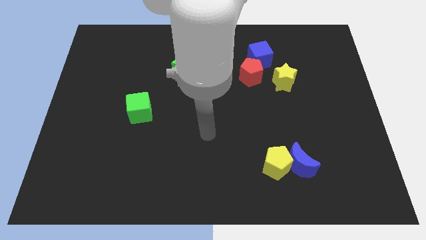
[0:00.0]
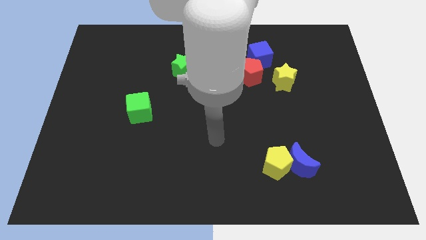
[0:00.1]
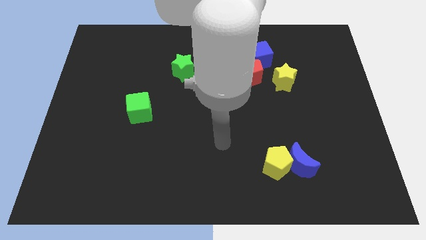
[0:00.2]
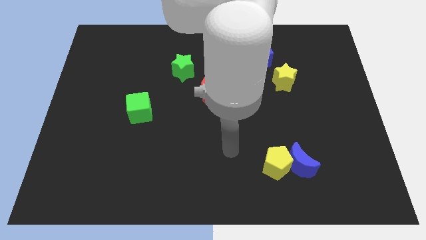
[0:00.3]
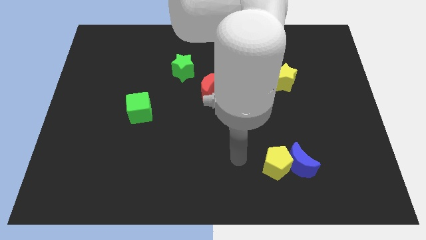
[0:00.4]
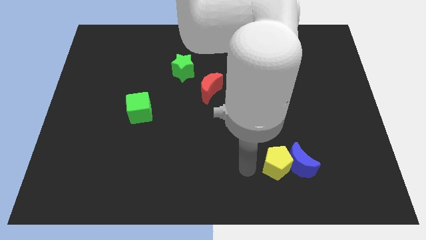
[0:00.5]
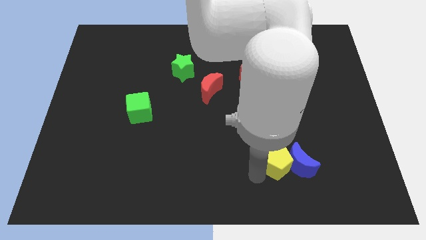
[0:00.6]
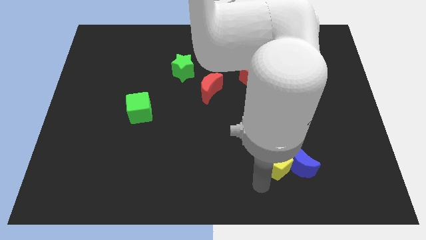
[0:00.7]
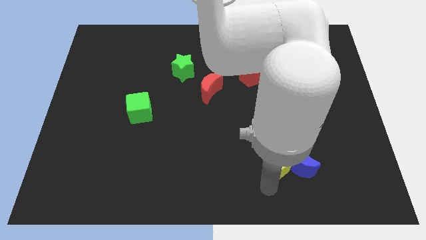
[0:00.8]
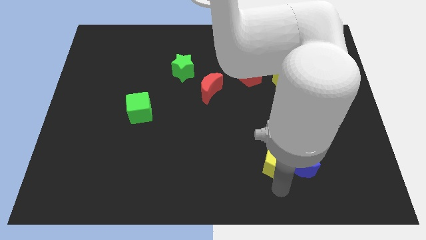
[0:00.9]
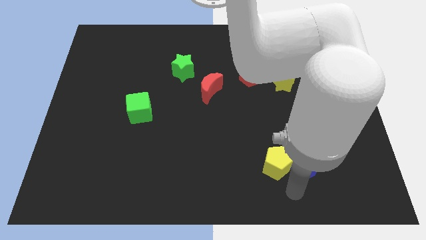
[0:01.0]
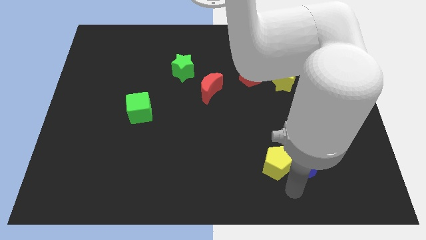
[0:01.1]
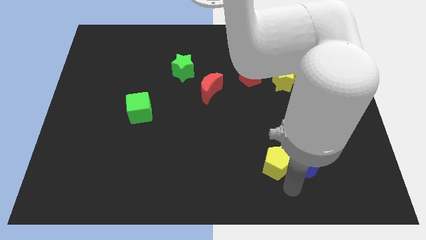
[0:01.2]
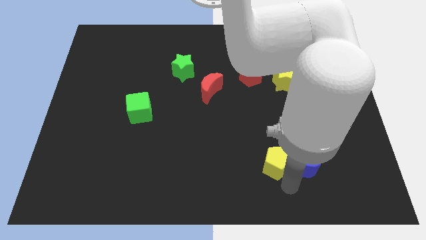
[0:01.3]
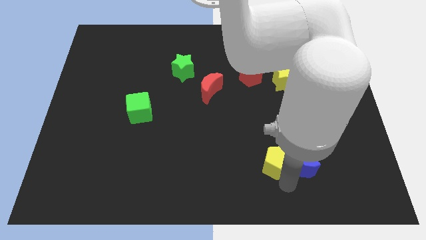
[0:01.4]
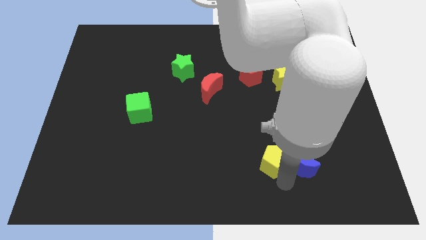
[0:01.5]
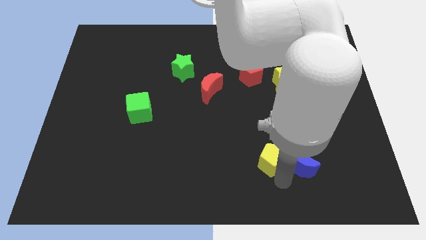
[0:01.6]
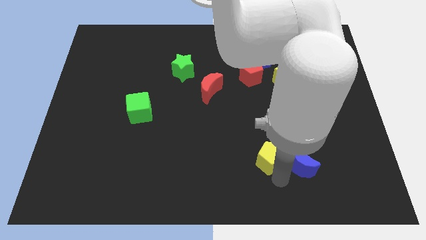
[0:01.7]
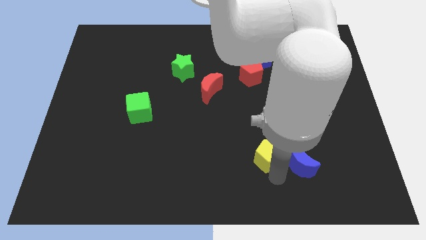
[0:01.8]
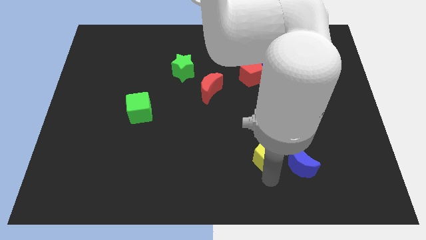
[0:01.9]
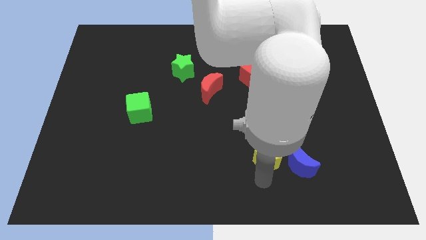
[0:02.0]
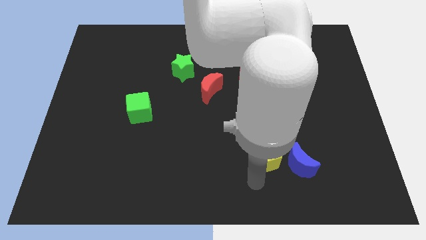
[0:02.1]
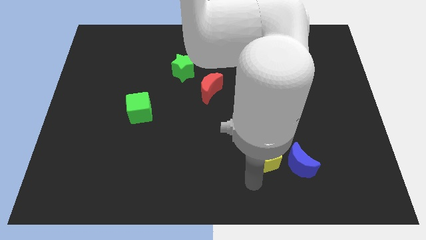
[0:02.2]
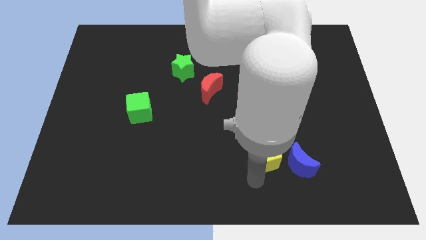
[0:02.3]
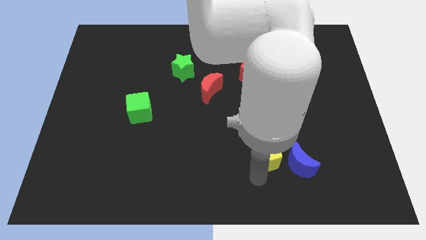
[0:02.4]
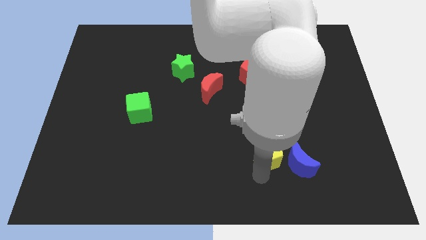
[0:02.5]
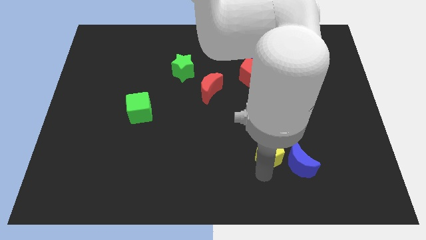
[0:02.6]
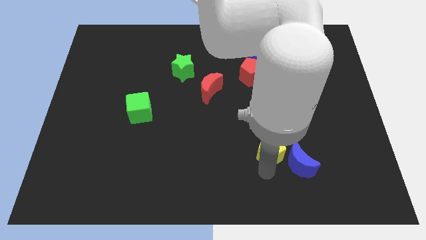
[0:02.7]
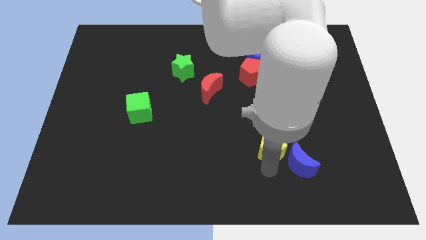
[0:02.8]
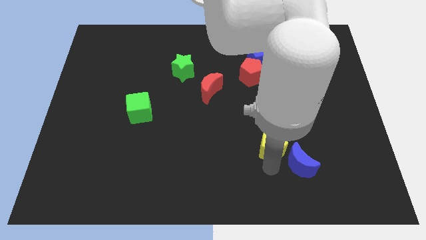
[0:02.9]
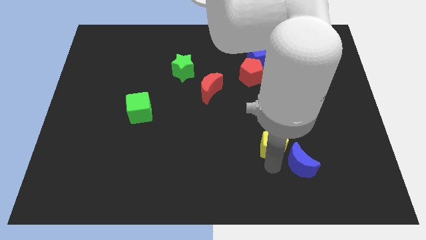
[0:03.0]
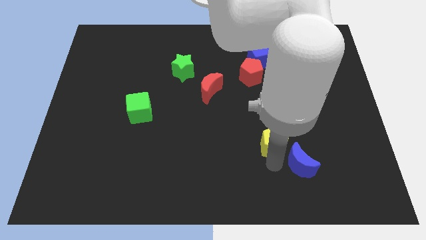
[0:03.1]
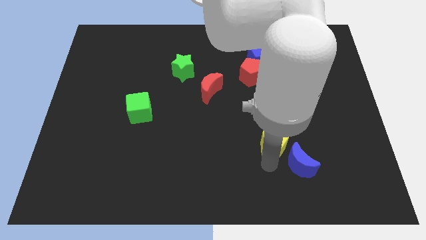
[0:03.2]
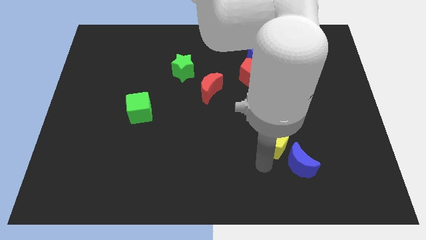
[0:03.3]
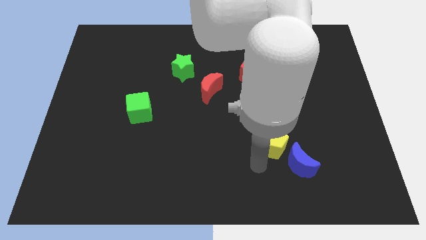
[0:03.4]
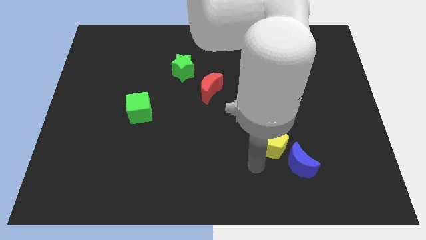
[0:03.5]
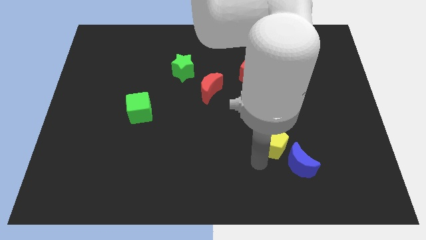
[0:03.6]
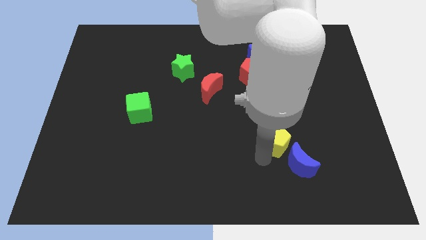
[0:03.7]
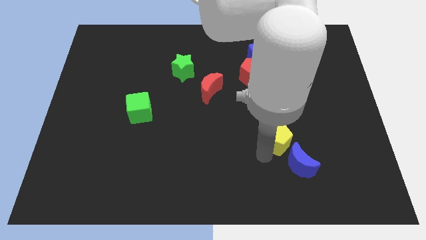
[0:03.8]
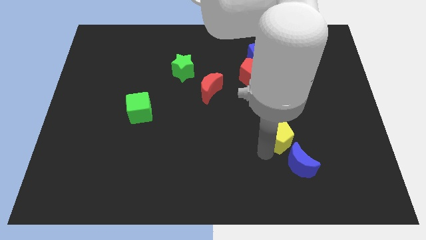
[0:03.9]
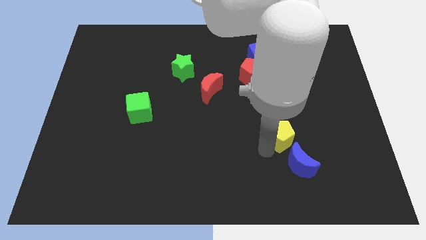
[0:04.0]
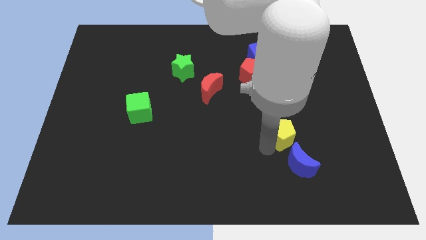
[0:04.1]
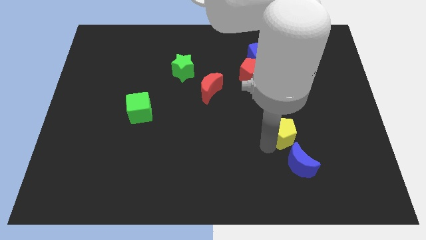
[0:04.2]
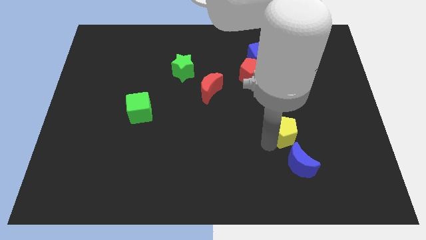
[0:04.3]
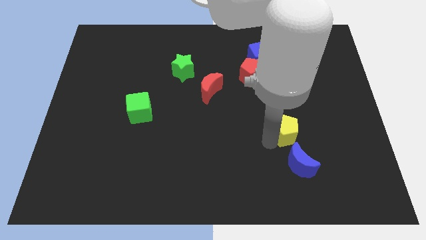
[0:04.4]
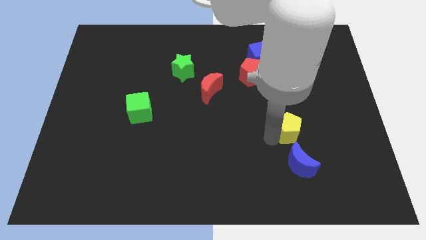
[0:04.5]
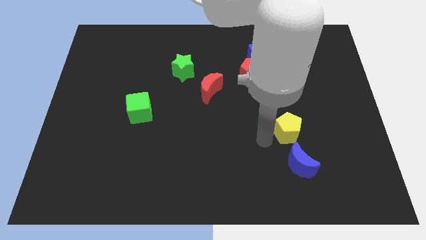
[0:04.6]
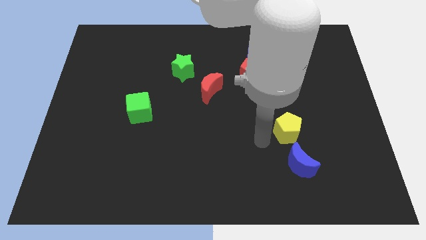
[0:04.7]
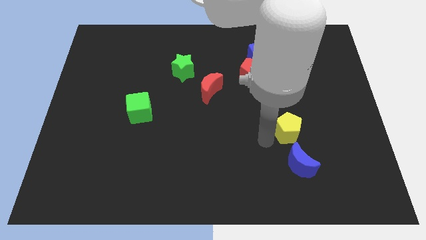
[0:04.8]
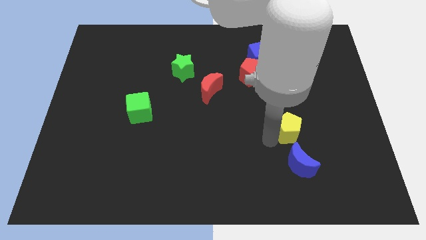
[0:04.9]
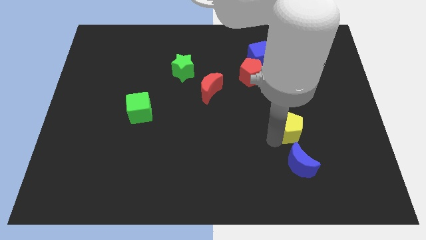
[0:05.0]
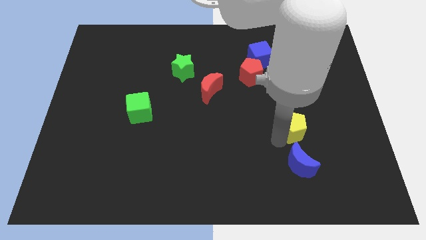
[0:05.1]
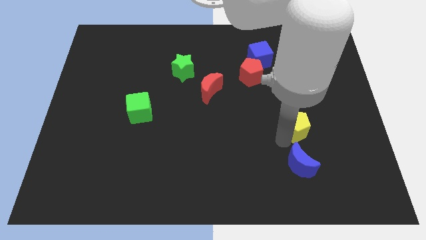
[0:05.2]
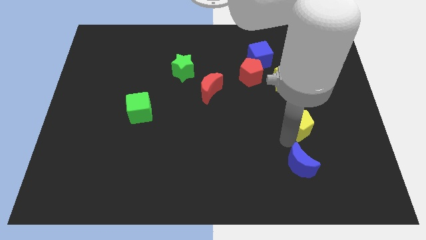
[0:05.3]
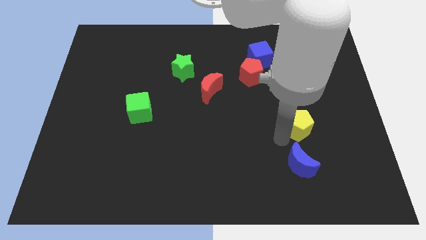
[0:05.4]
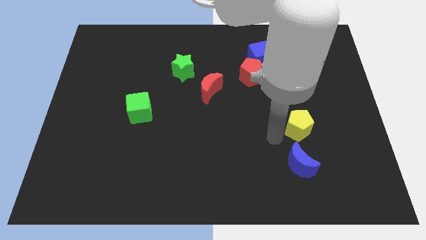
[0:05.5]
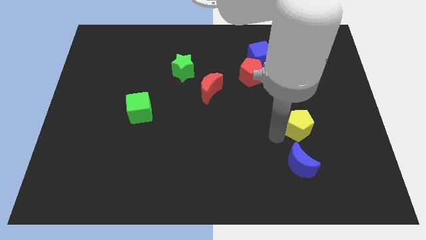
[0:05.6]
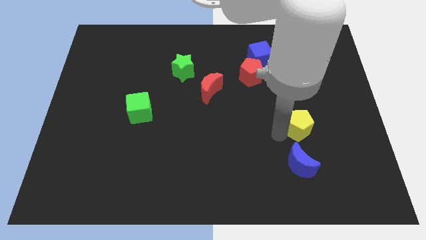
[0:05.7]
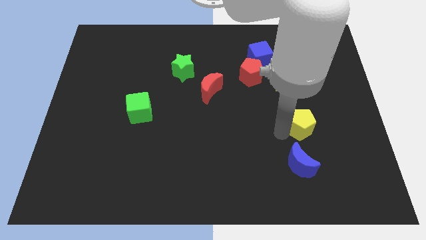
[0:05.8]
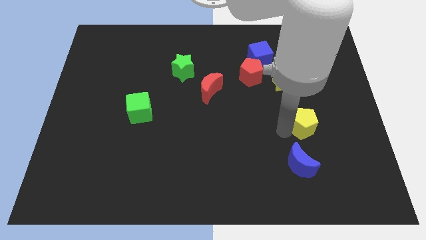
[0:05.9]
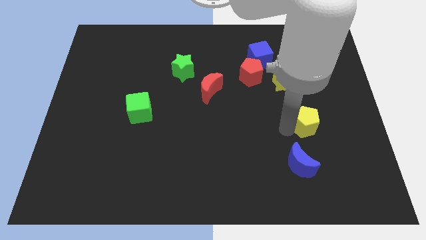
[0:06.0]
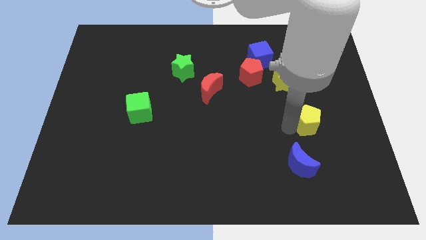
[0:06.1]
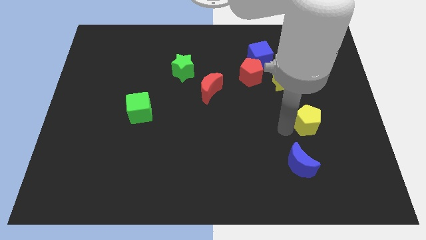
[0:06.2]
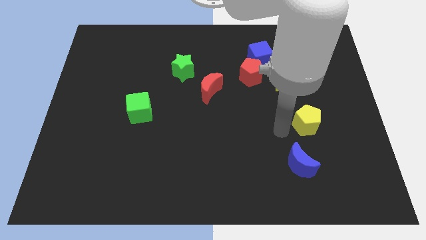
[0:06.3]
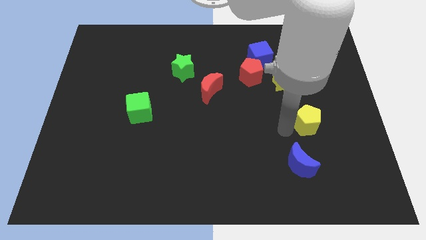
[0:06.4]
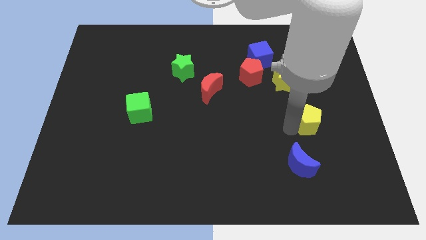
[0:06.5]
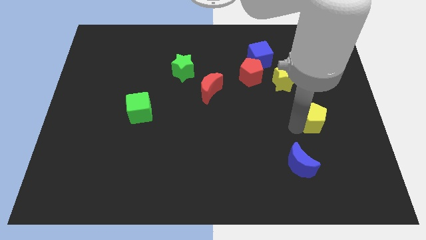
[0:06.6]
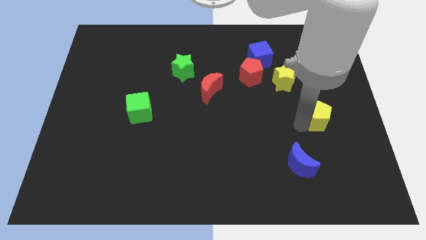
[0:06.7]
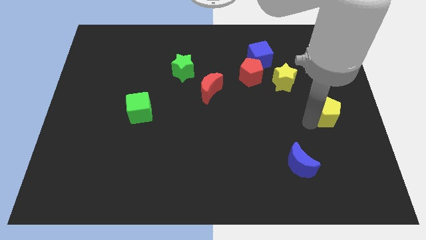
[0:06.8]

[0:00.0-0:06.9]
slide the yellow pentagon to the center right

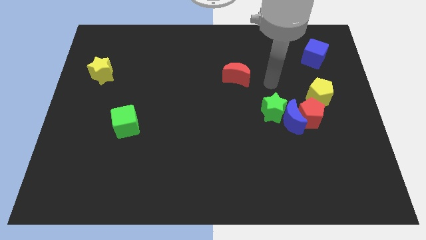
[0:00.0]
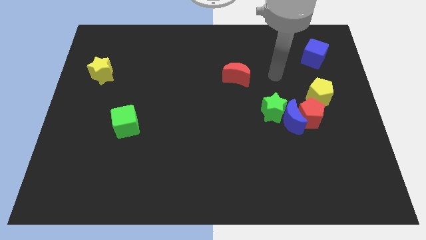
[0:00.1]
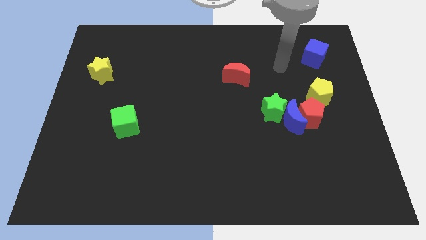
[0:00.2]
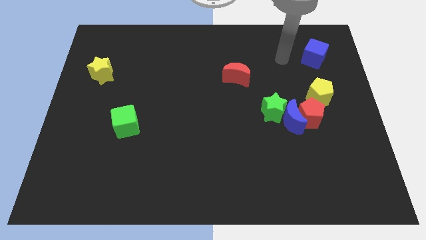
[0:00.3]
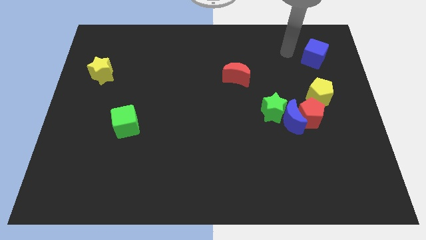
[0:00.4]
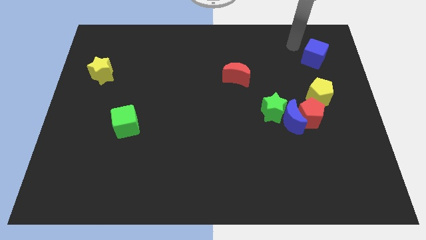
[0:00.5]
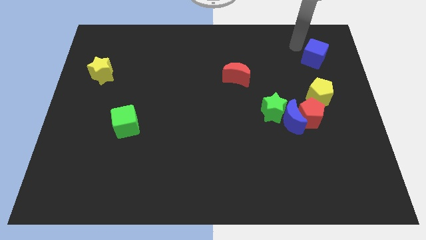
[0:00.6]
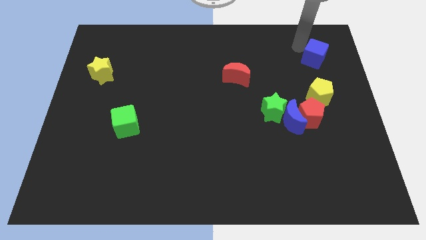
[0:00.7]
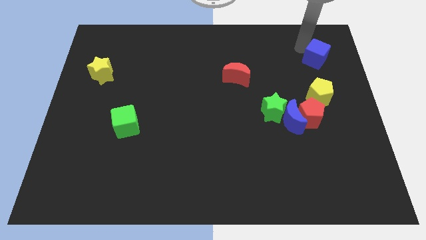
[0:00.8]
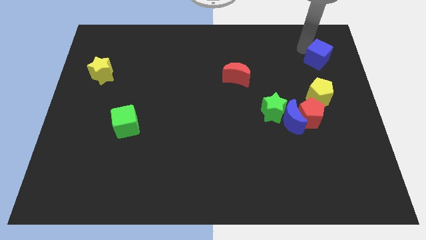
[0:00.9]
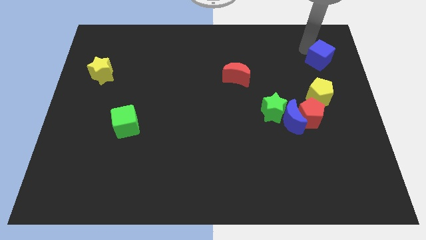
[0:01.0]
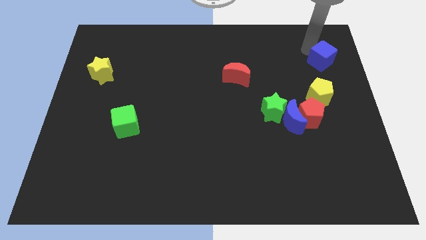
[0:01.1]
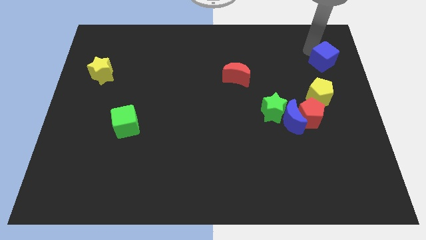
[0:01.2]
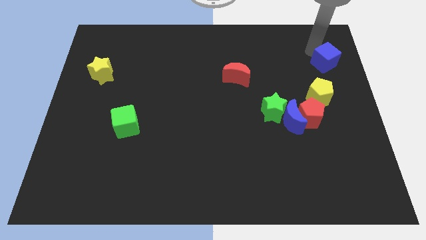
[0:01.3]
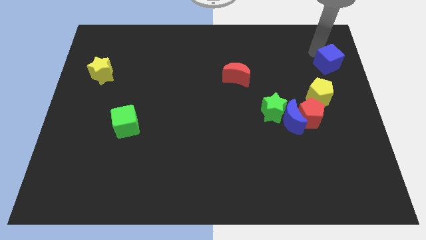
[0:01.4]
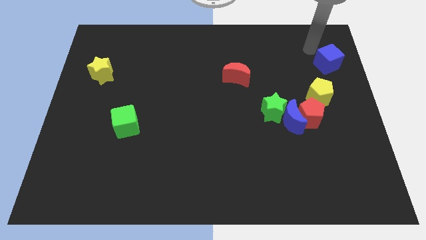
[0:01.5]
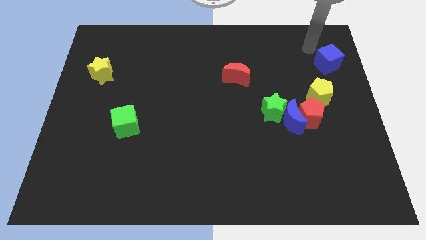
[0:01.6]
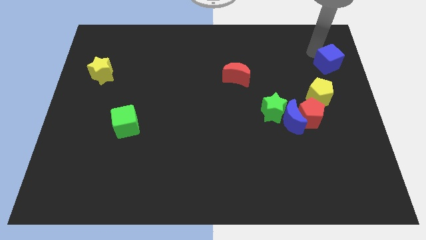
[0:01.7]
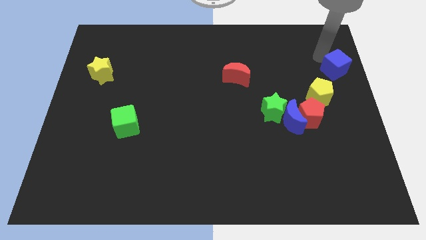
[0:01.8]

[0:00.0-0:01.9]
push the blue cube to the right side
